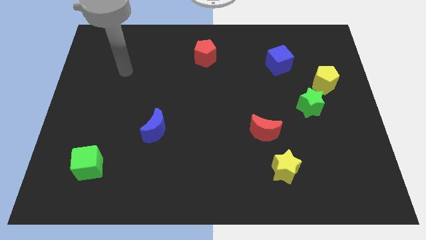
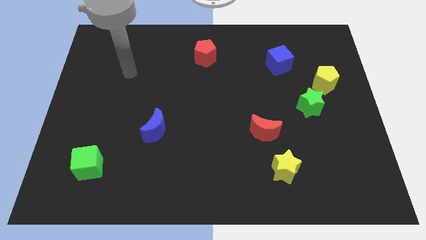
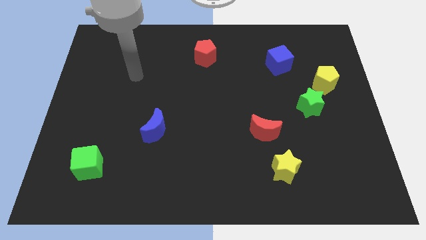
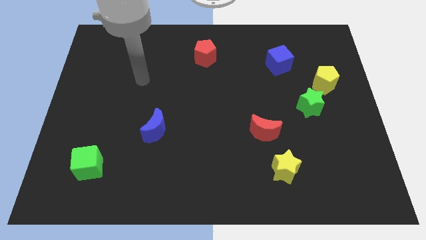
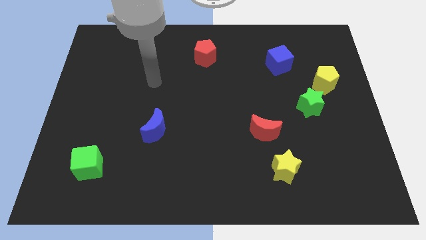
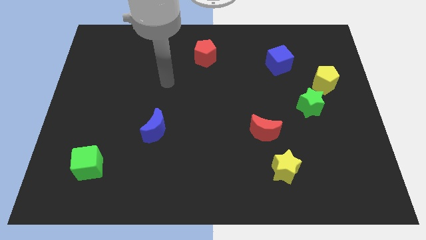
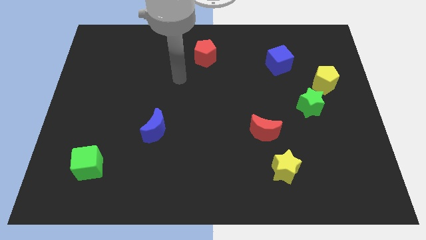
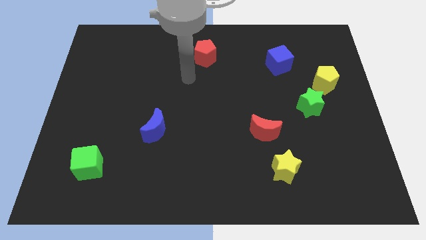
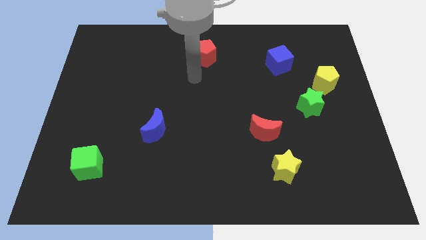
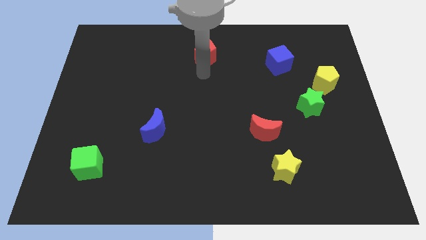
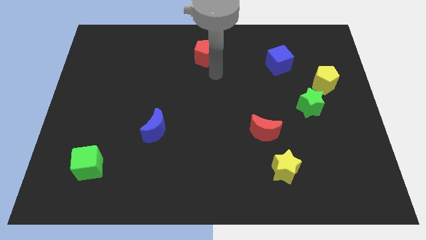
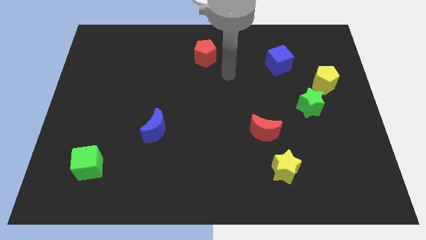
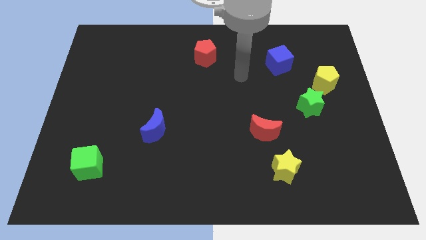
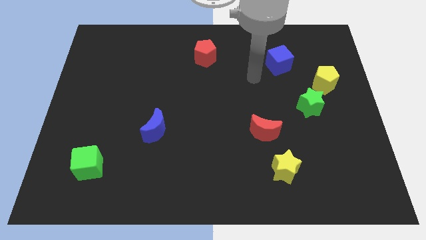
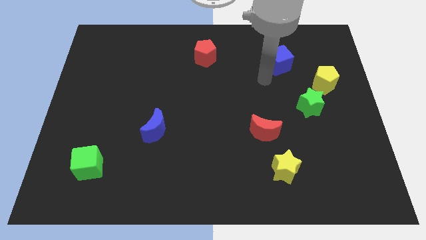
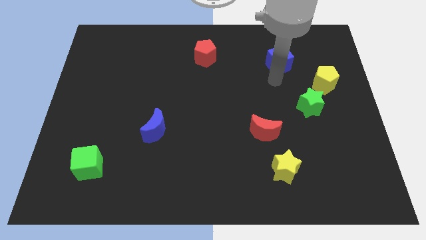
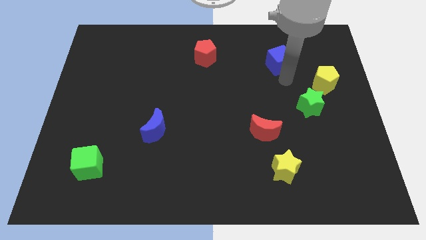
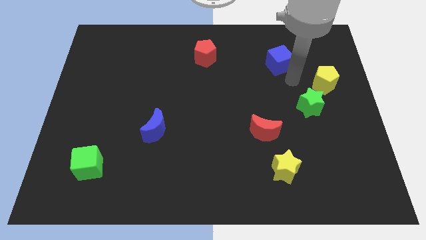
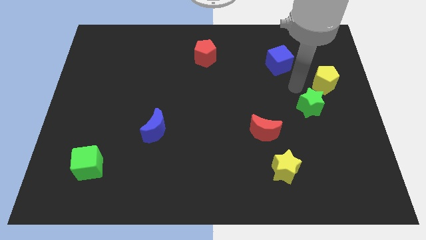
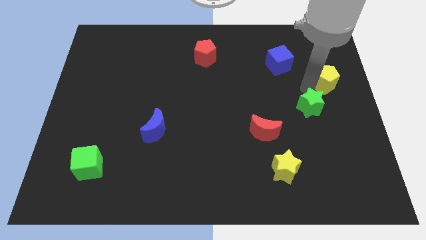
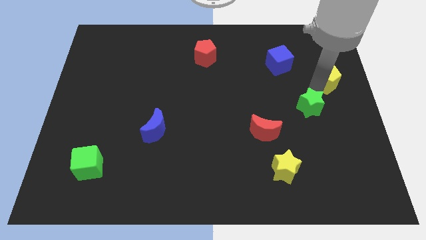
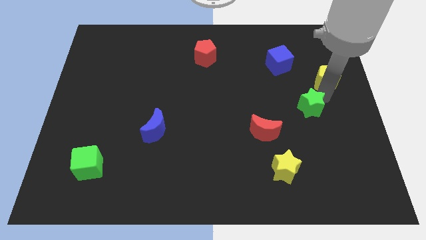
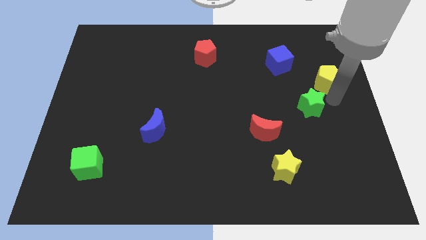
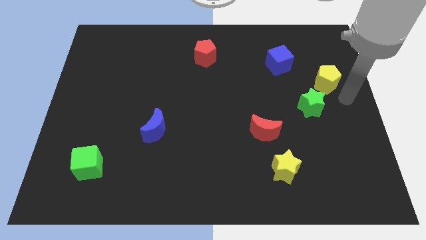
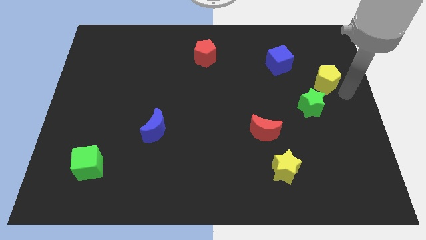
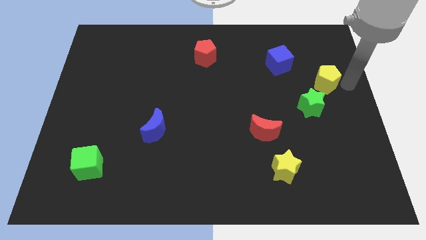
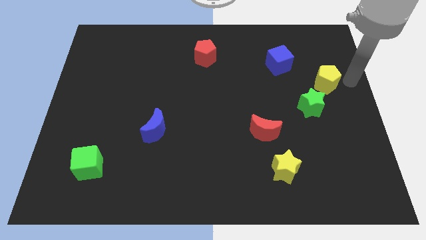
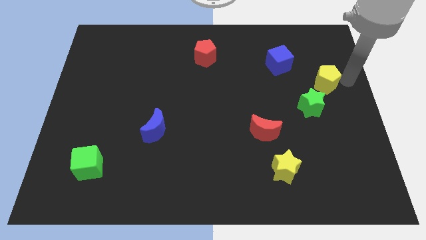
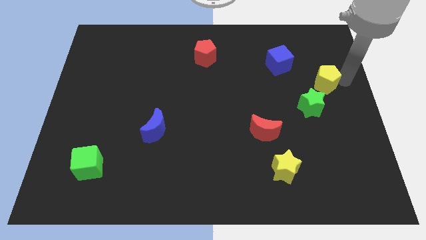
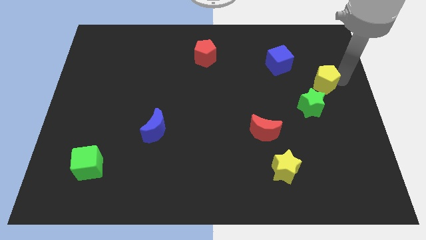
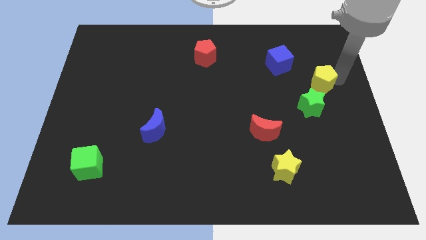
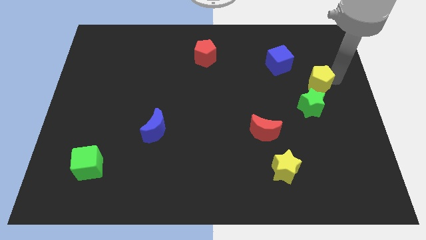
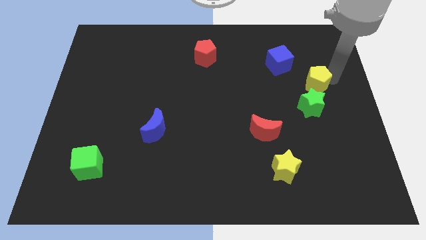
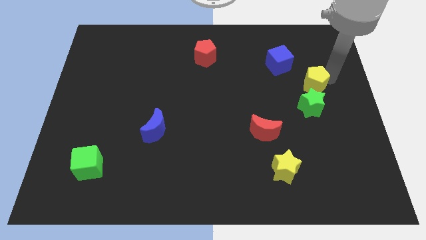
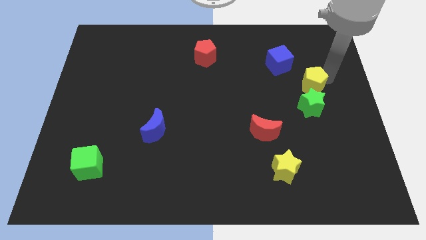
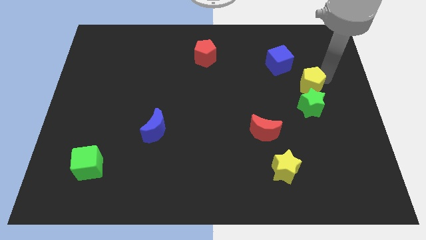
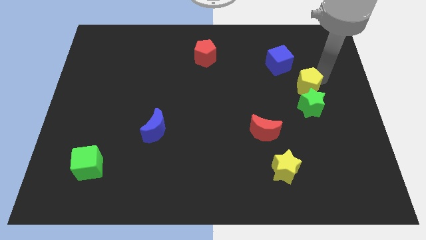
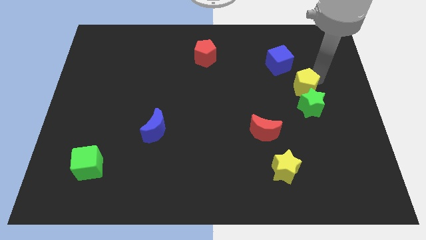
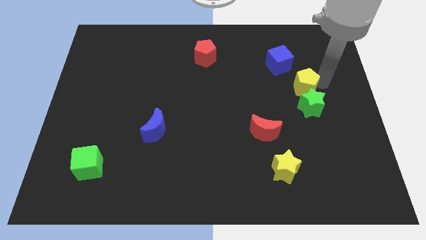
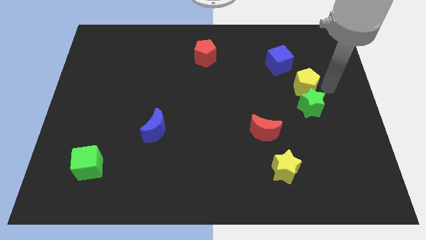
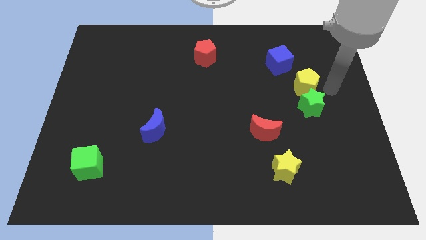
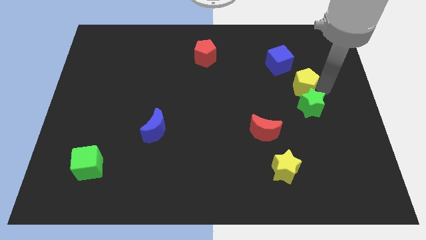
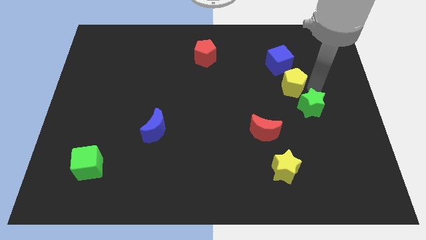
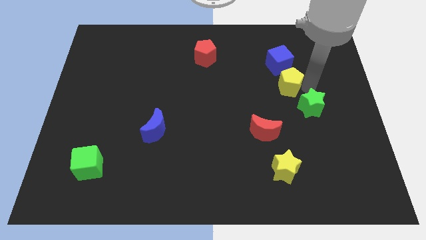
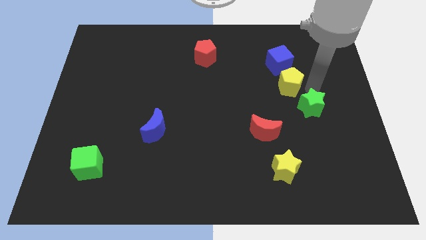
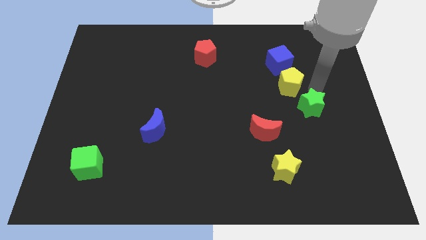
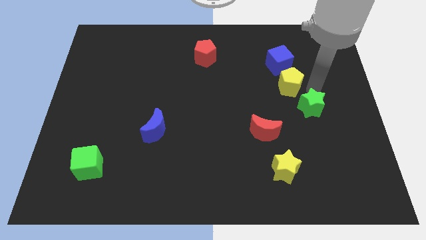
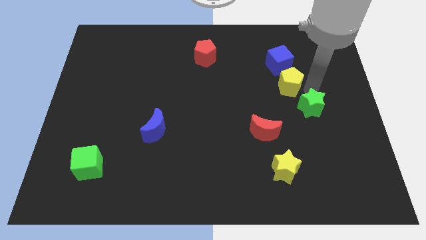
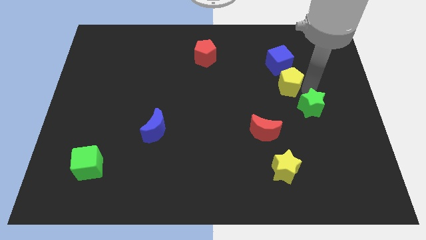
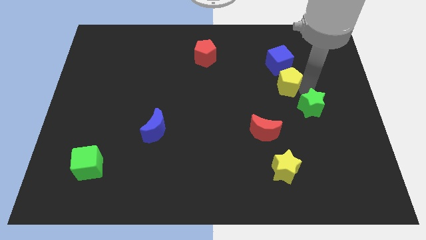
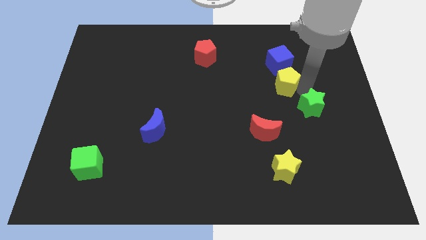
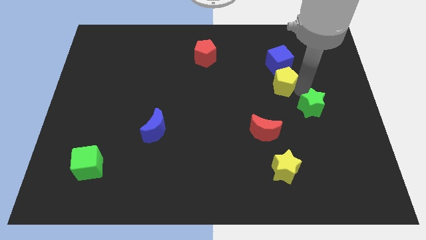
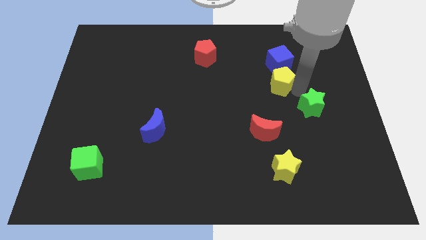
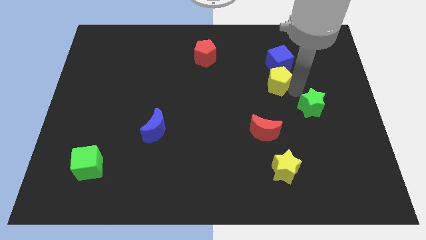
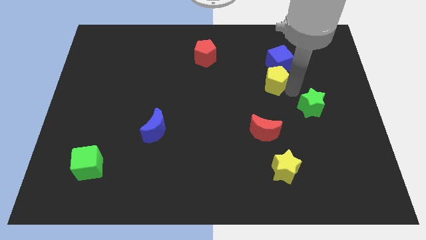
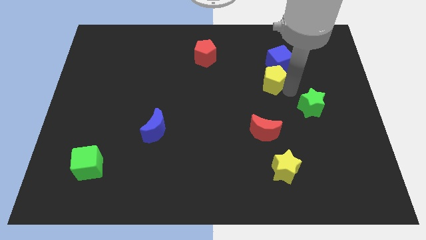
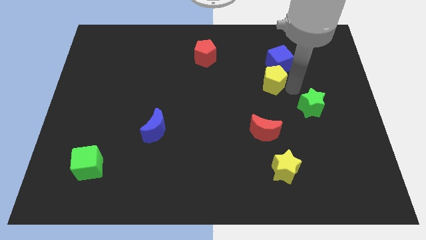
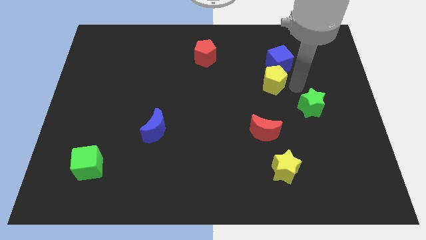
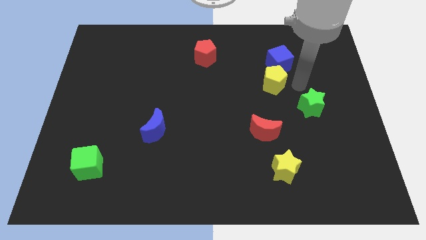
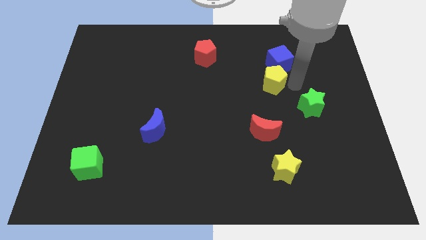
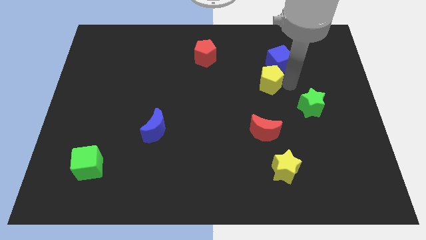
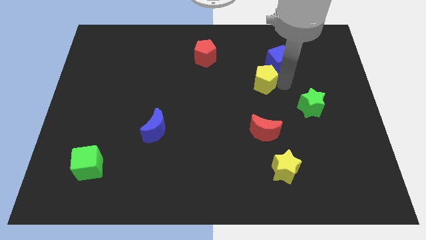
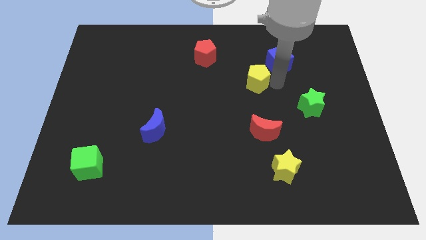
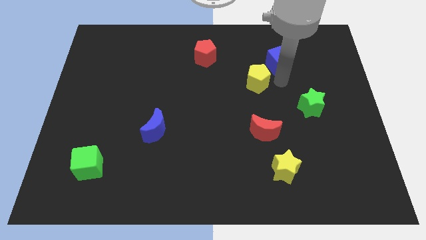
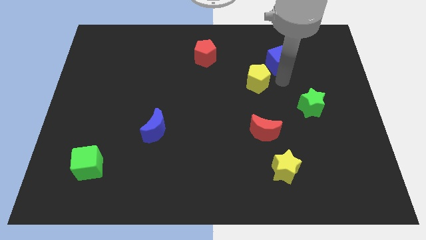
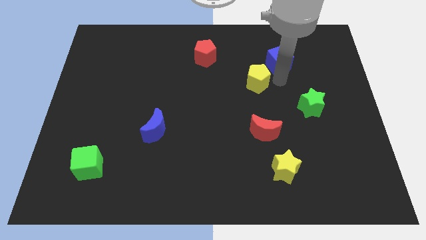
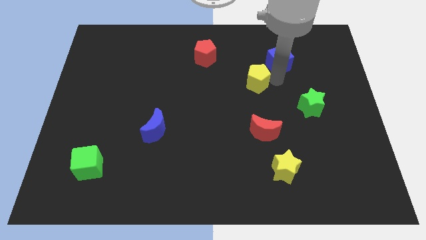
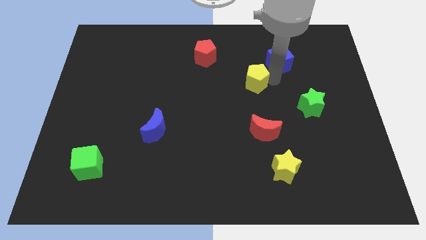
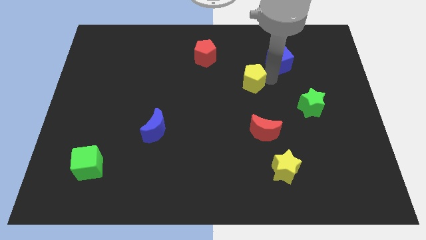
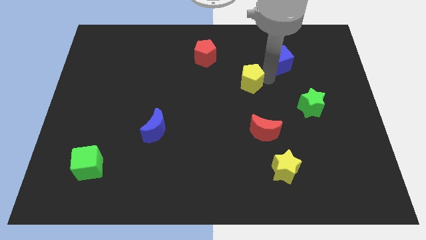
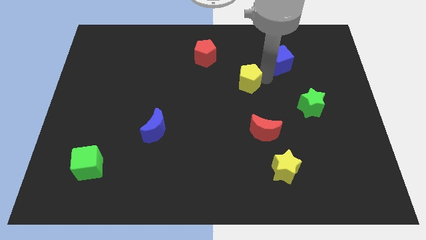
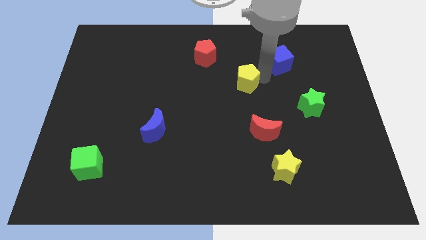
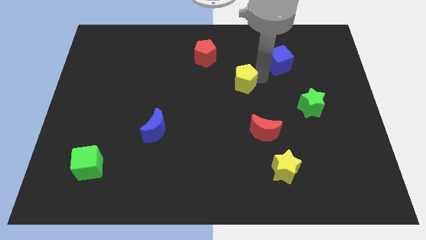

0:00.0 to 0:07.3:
slide the yellow pentagon to the left

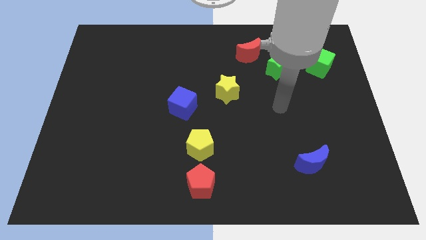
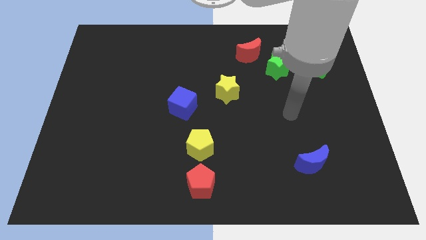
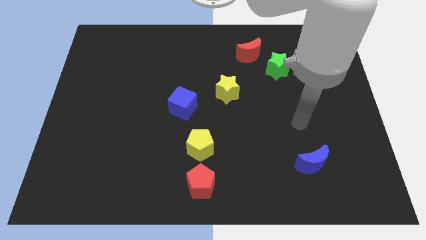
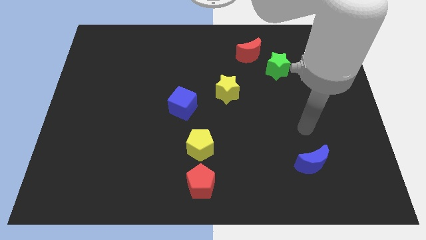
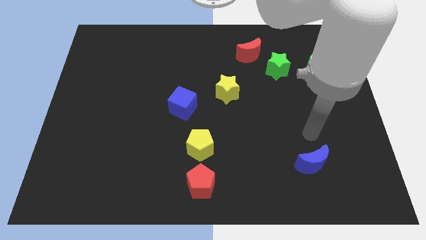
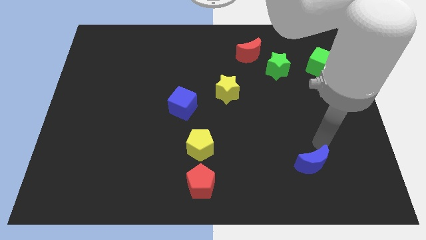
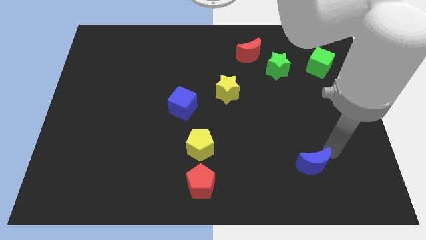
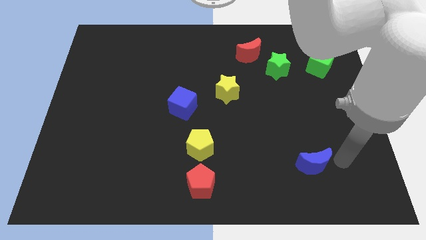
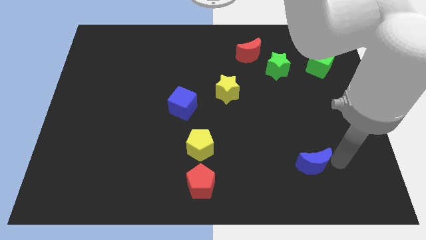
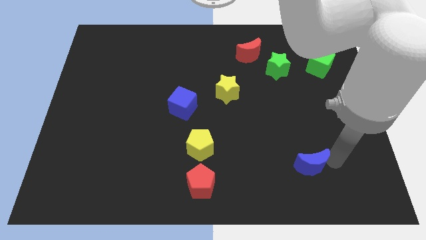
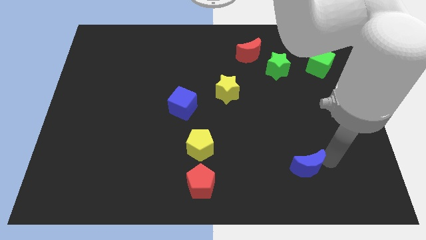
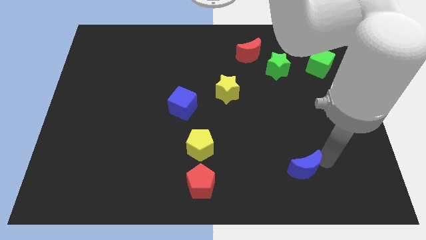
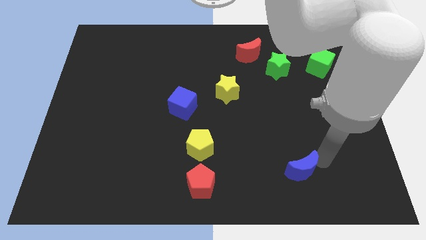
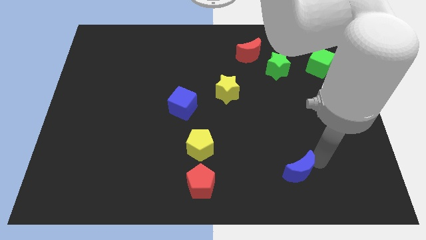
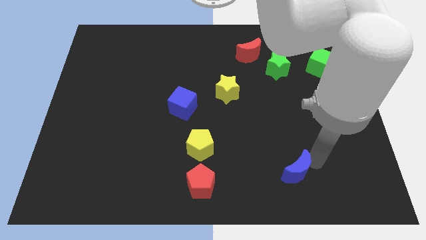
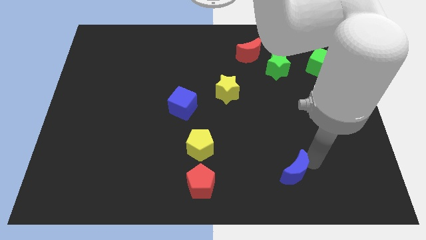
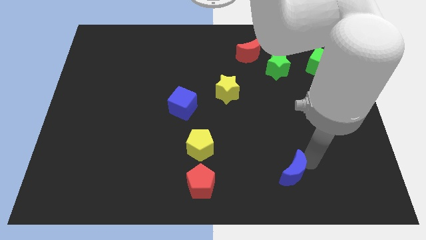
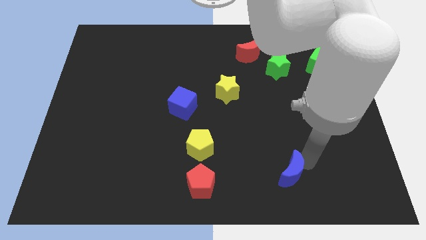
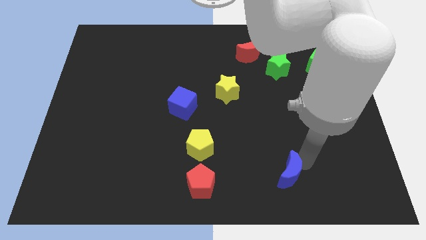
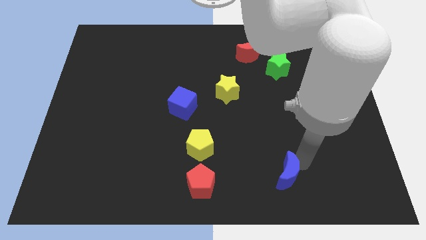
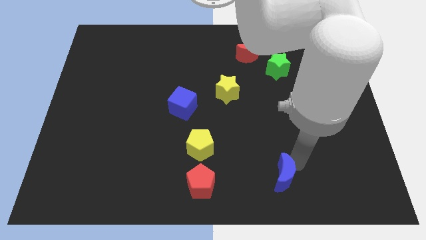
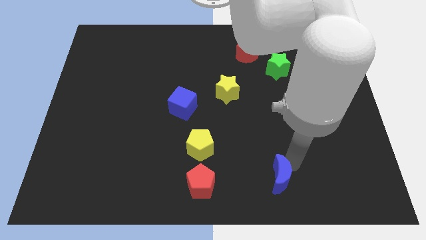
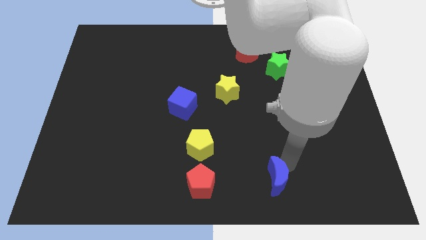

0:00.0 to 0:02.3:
slightly push the blue moon left
